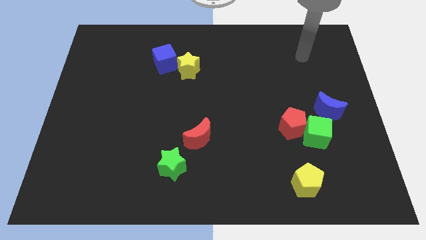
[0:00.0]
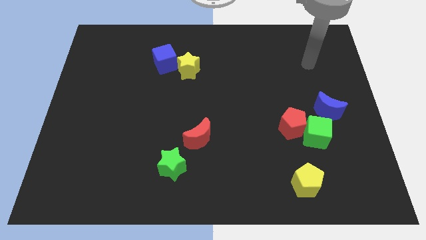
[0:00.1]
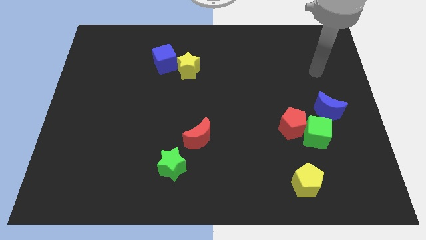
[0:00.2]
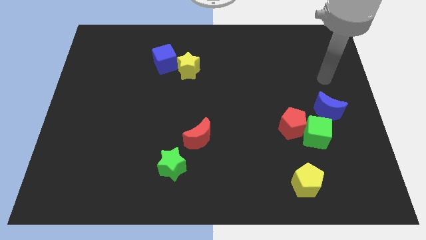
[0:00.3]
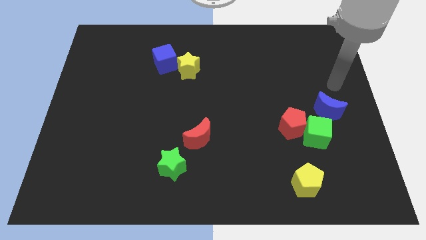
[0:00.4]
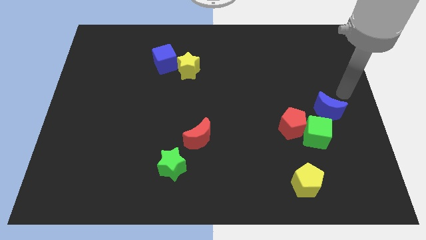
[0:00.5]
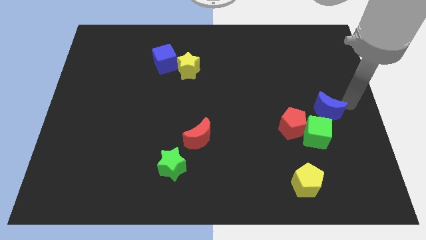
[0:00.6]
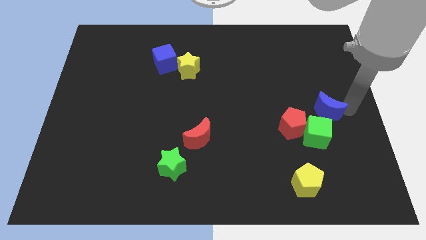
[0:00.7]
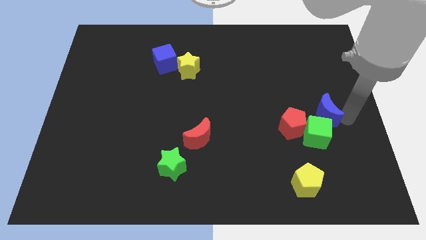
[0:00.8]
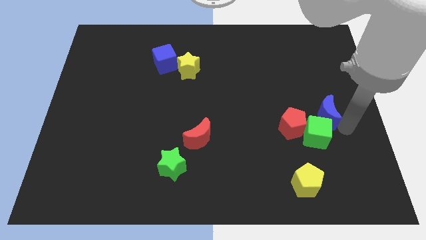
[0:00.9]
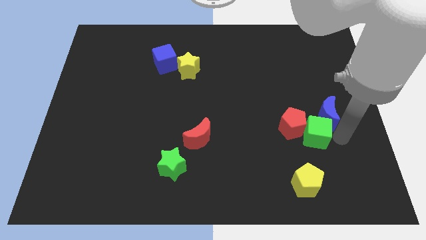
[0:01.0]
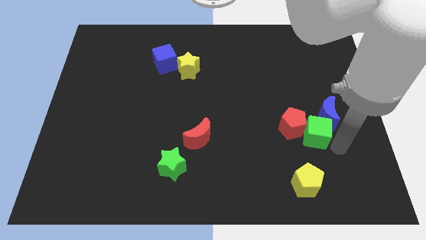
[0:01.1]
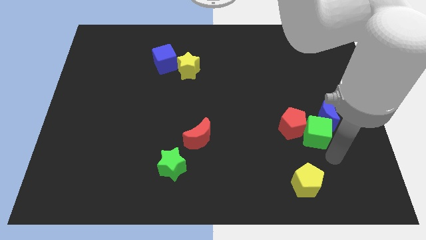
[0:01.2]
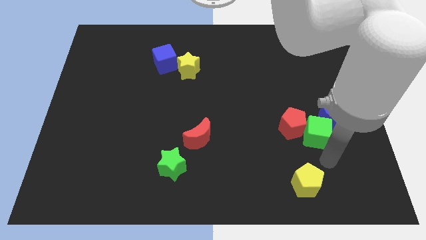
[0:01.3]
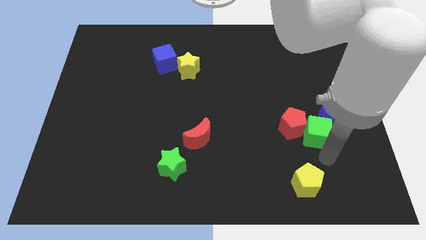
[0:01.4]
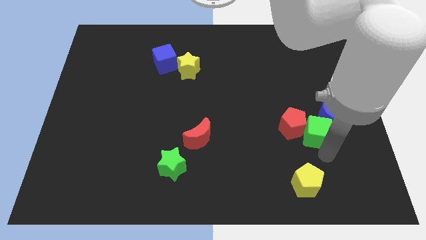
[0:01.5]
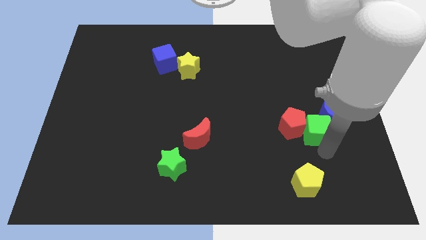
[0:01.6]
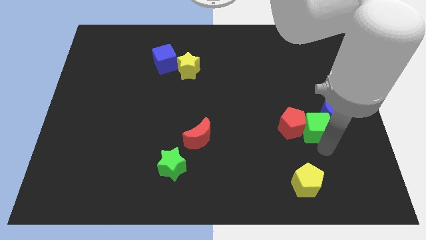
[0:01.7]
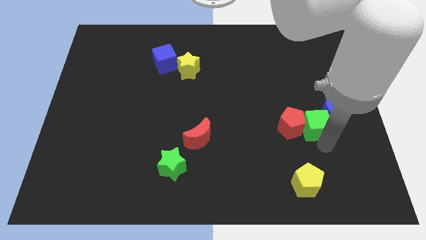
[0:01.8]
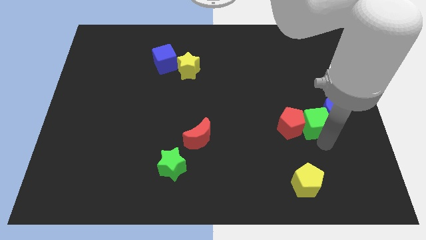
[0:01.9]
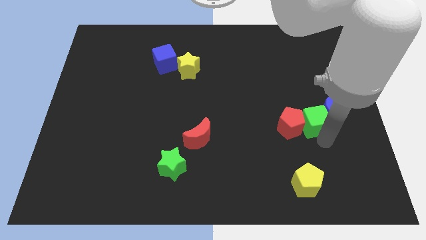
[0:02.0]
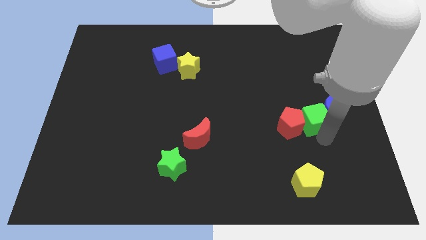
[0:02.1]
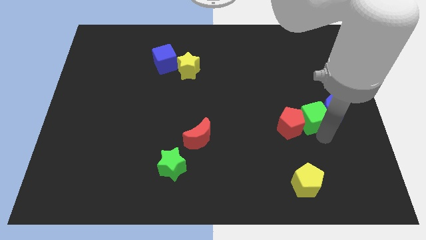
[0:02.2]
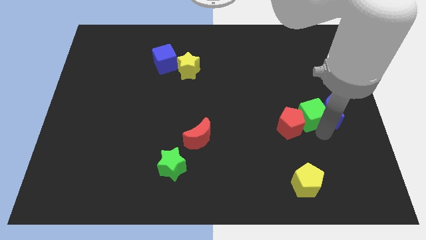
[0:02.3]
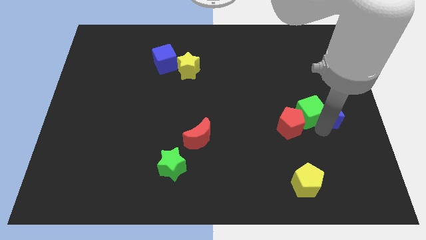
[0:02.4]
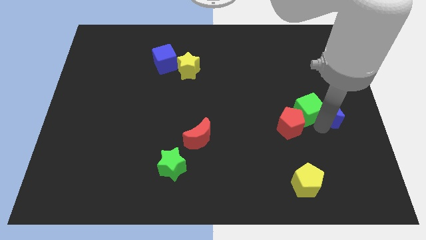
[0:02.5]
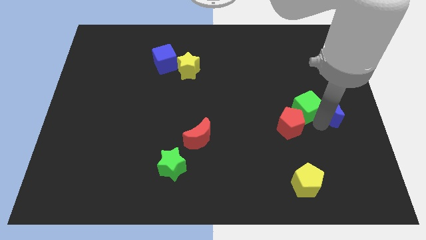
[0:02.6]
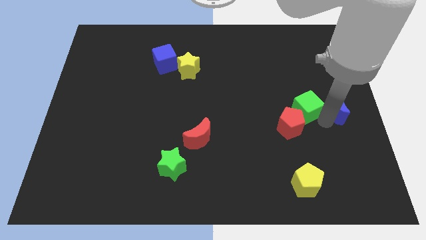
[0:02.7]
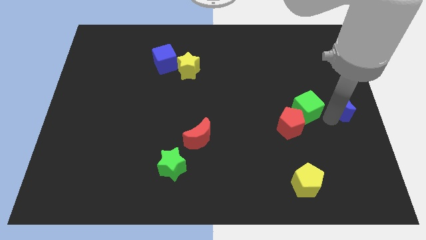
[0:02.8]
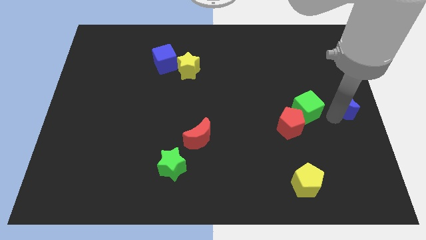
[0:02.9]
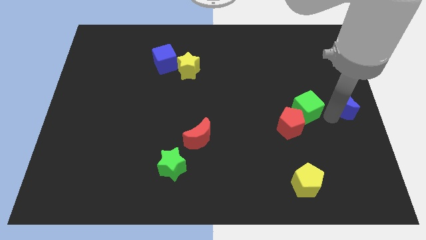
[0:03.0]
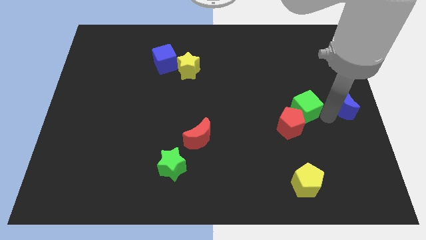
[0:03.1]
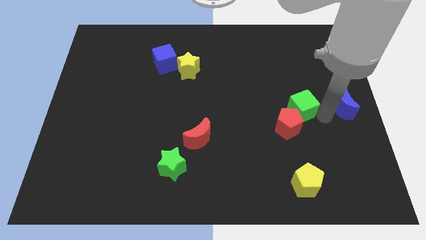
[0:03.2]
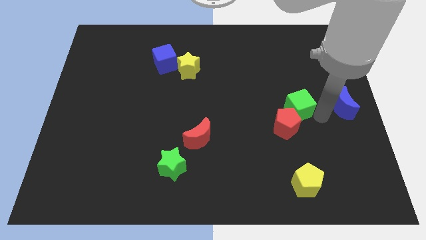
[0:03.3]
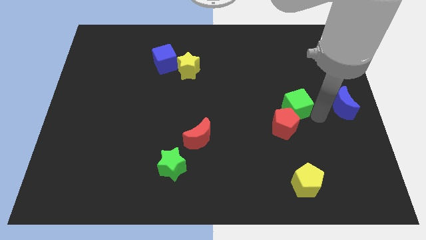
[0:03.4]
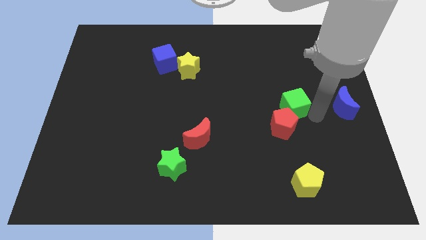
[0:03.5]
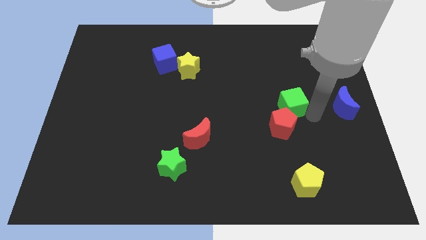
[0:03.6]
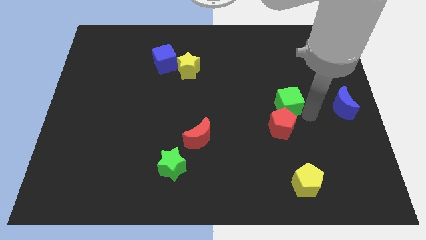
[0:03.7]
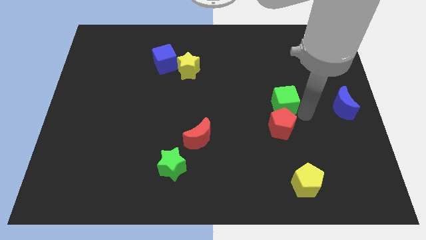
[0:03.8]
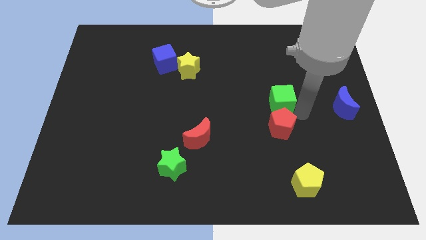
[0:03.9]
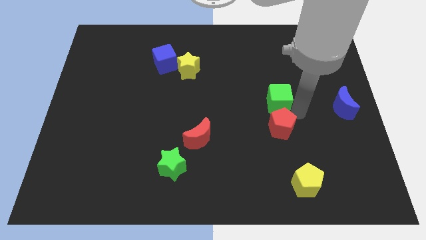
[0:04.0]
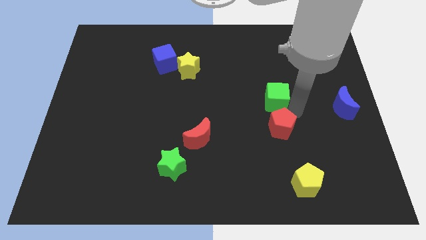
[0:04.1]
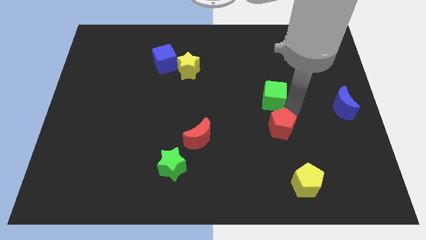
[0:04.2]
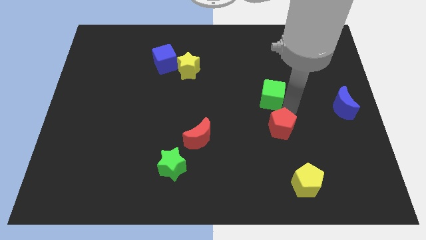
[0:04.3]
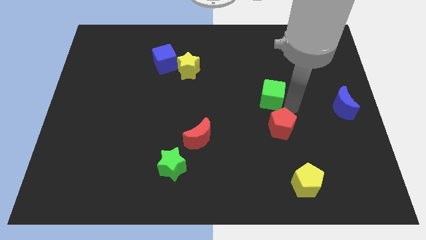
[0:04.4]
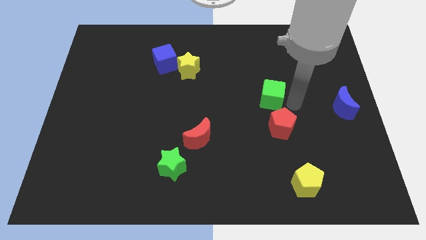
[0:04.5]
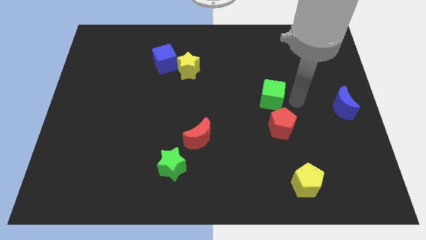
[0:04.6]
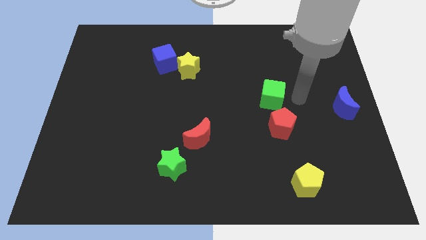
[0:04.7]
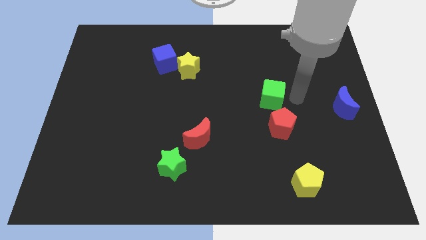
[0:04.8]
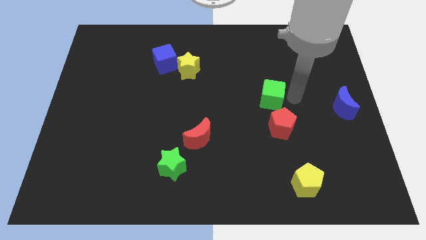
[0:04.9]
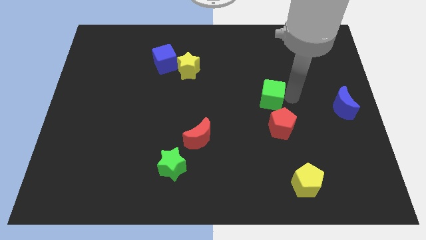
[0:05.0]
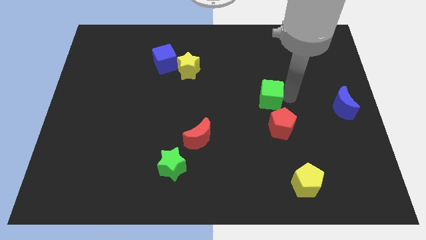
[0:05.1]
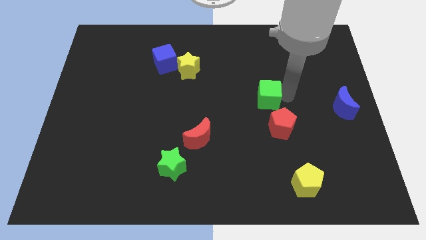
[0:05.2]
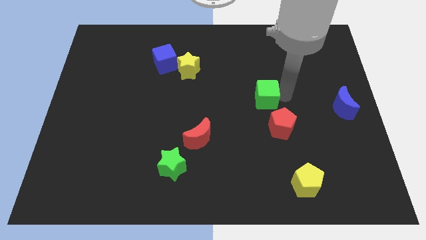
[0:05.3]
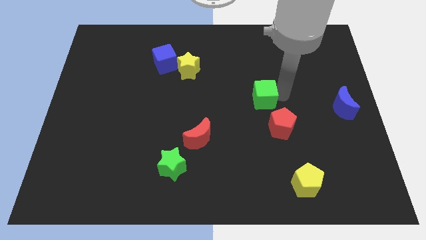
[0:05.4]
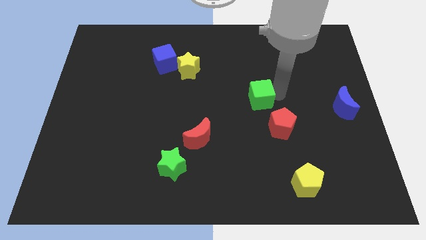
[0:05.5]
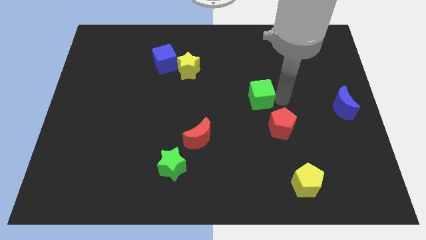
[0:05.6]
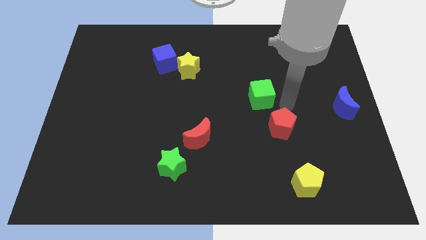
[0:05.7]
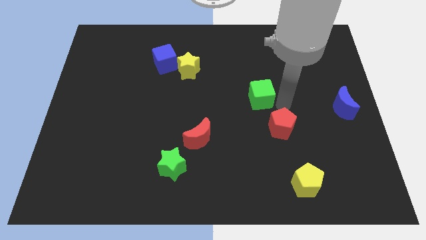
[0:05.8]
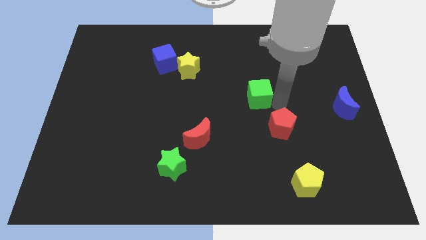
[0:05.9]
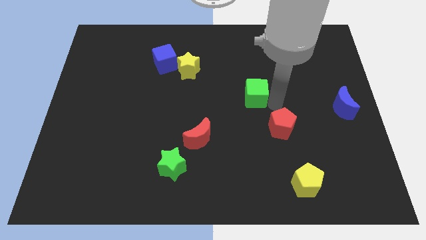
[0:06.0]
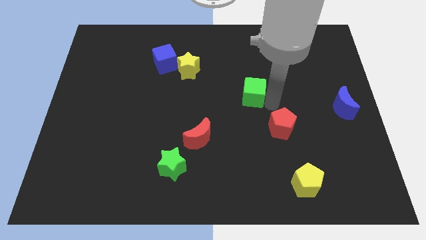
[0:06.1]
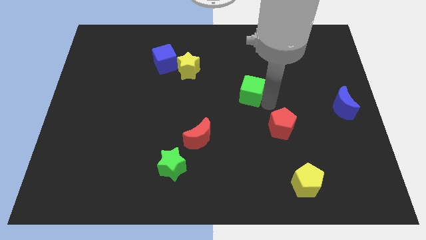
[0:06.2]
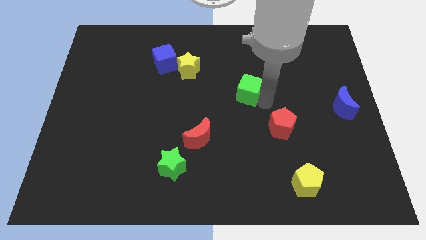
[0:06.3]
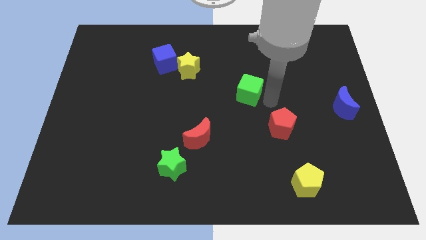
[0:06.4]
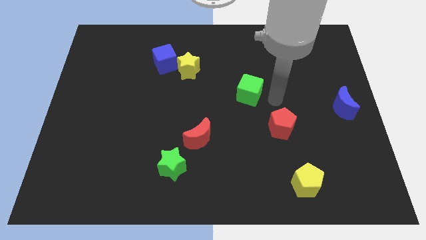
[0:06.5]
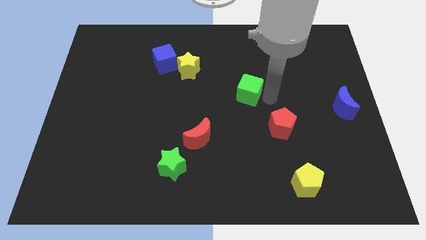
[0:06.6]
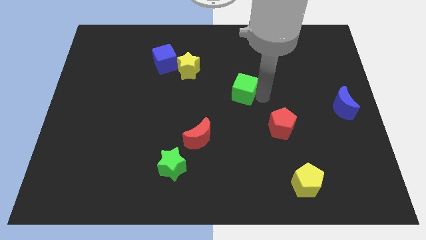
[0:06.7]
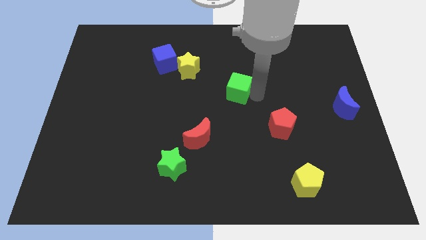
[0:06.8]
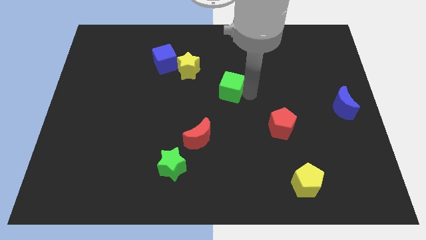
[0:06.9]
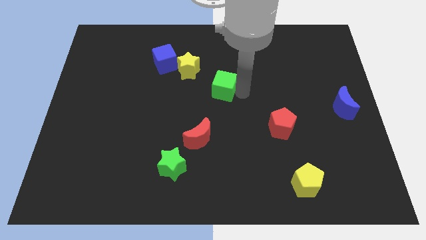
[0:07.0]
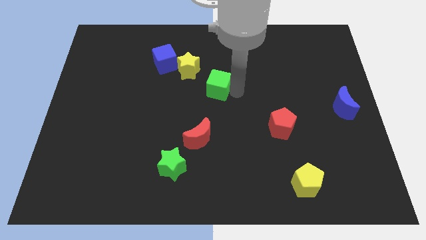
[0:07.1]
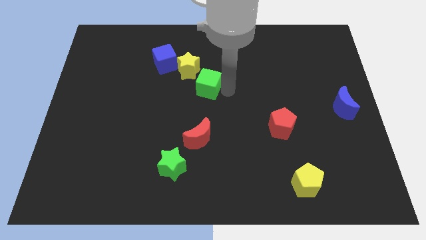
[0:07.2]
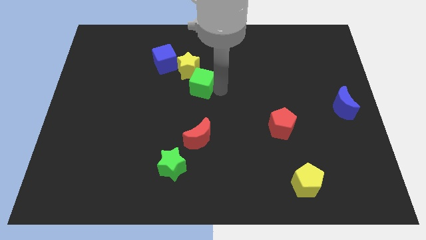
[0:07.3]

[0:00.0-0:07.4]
move the green cube diagonally down and to the right of the blue cube

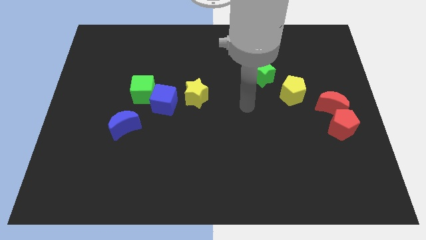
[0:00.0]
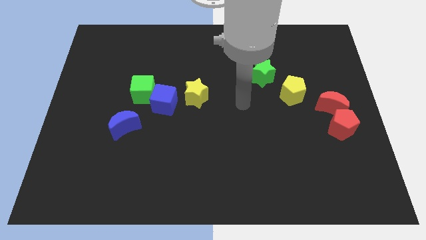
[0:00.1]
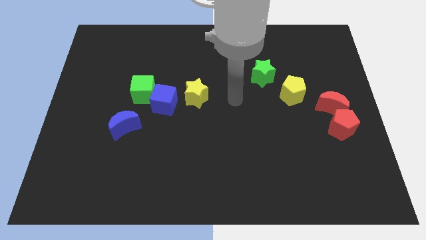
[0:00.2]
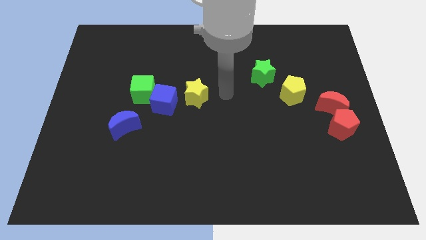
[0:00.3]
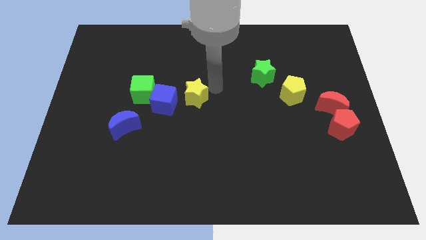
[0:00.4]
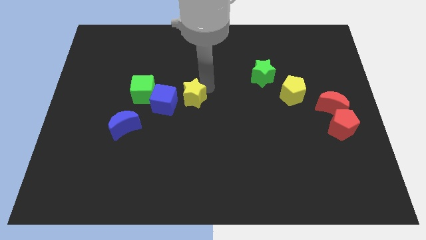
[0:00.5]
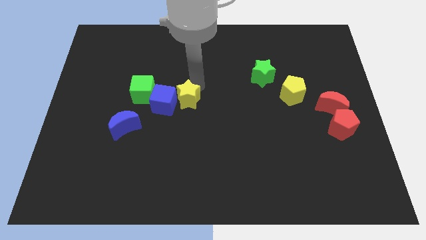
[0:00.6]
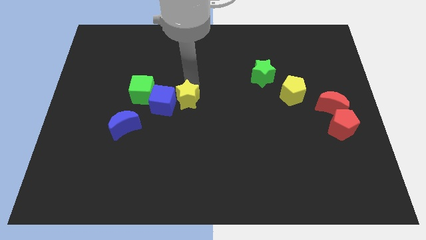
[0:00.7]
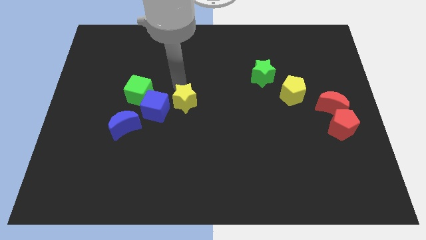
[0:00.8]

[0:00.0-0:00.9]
push the blue cube to the bottom side of the green cube

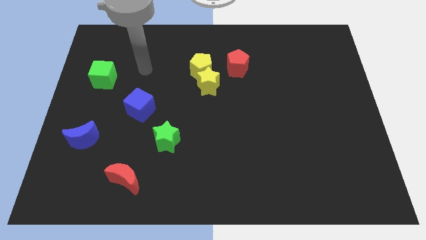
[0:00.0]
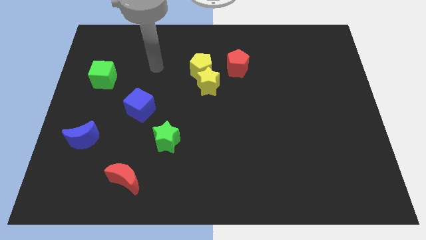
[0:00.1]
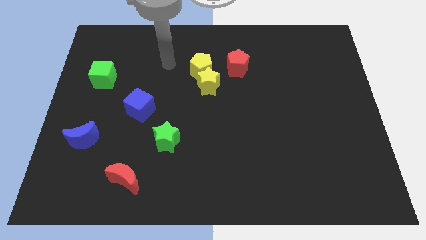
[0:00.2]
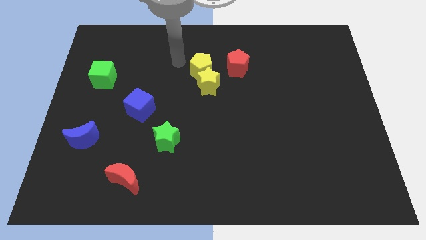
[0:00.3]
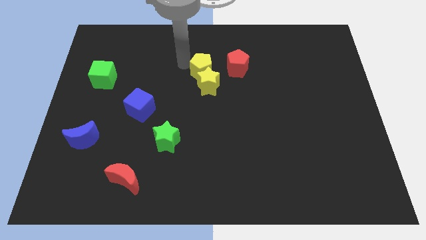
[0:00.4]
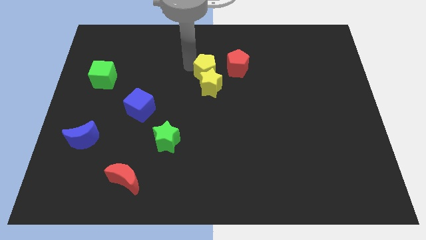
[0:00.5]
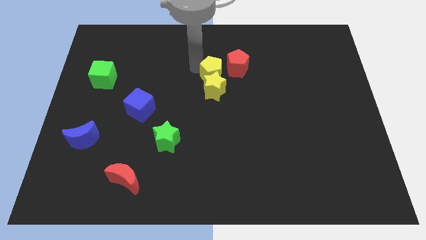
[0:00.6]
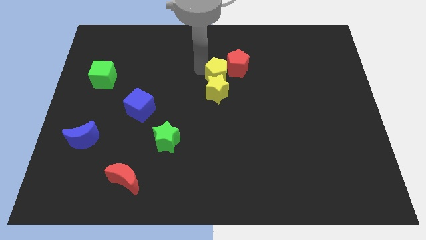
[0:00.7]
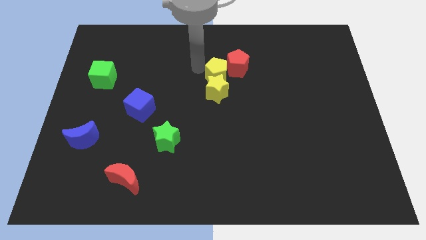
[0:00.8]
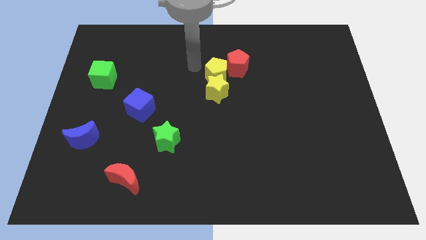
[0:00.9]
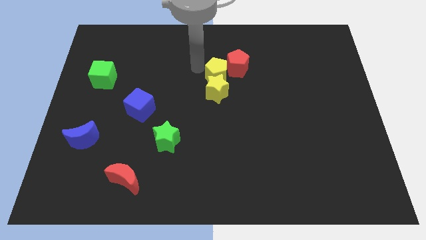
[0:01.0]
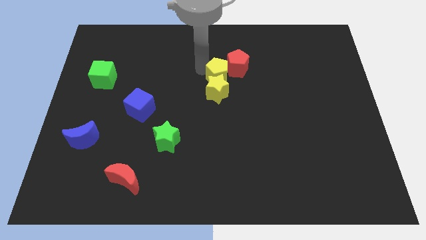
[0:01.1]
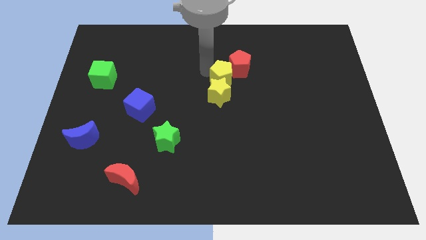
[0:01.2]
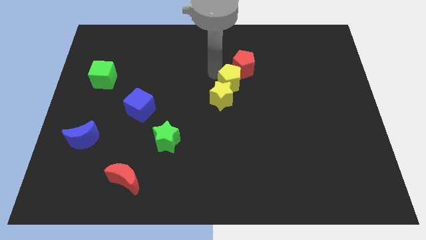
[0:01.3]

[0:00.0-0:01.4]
put the yellow pentagon to the bottom side of the red pentagon
